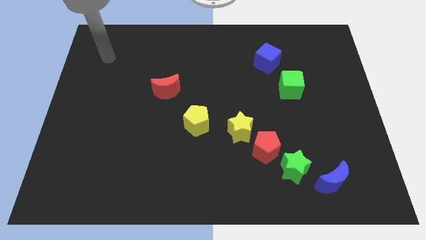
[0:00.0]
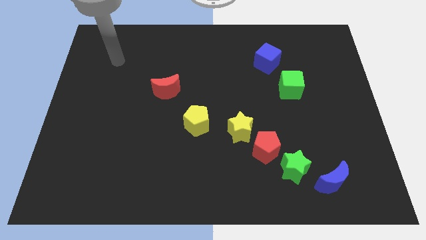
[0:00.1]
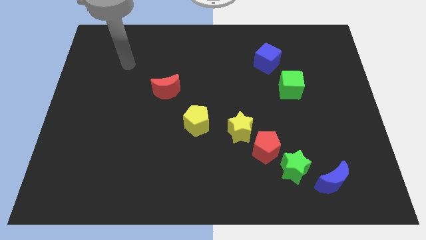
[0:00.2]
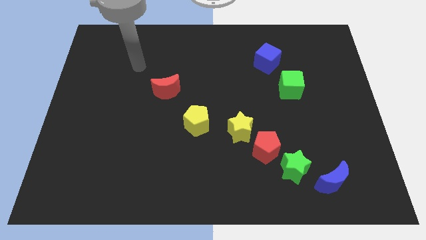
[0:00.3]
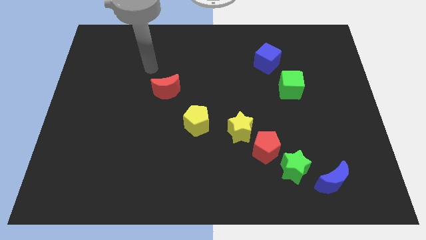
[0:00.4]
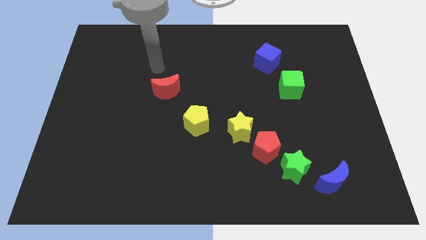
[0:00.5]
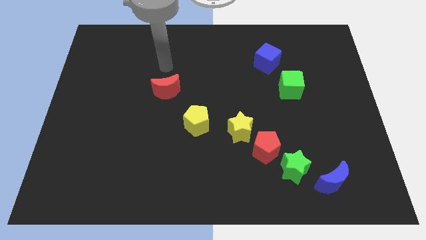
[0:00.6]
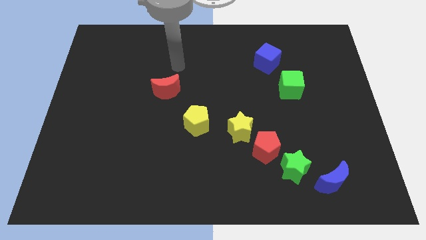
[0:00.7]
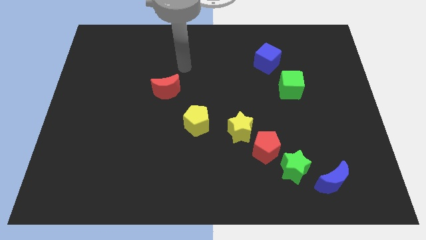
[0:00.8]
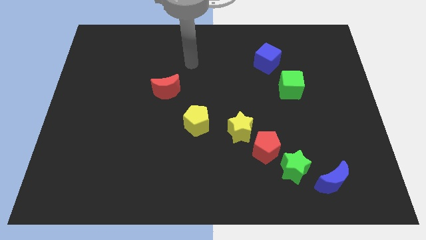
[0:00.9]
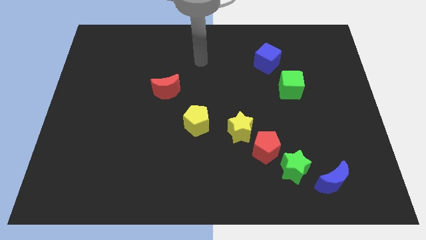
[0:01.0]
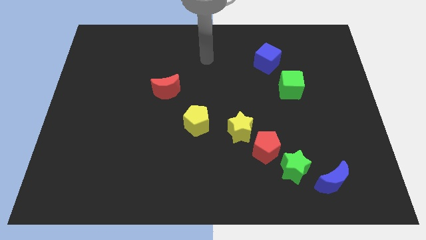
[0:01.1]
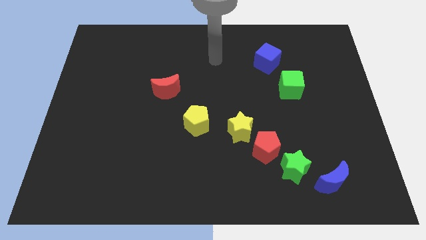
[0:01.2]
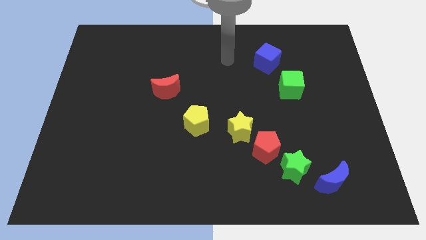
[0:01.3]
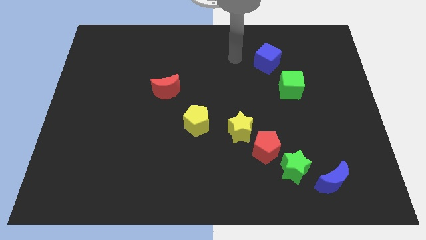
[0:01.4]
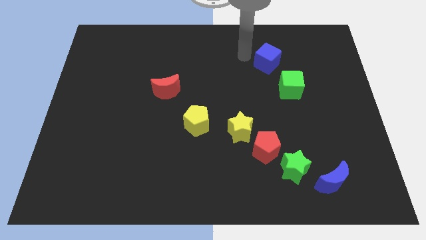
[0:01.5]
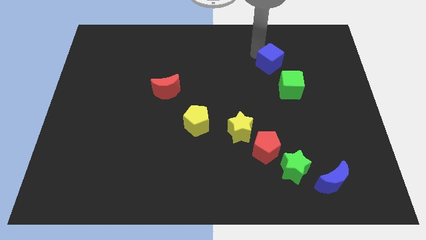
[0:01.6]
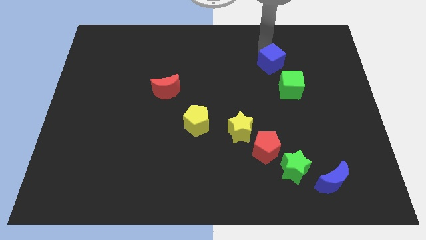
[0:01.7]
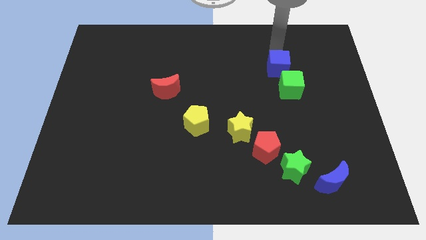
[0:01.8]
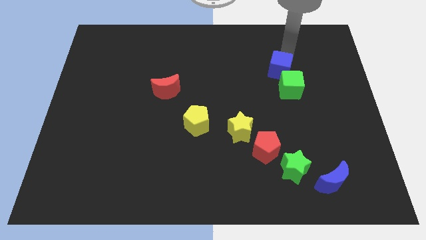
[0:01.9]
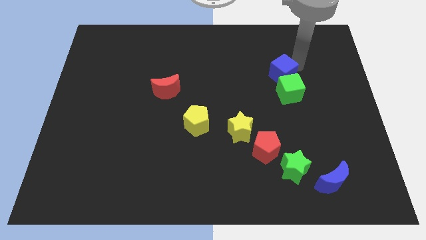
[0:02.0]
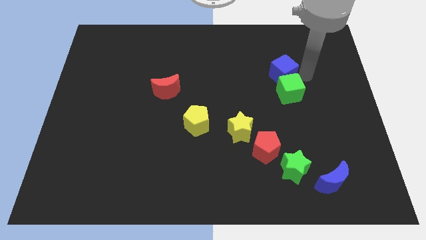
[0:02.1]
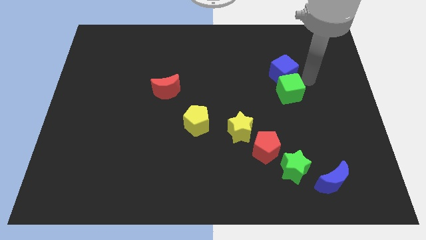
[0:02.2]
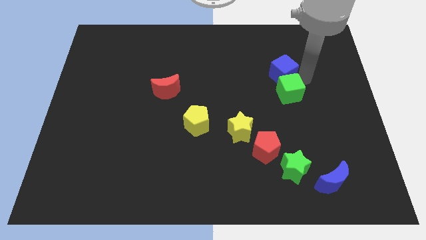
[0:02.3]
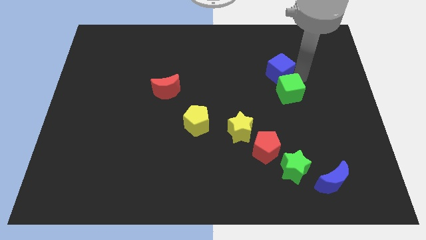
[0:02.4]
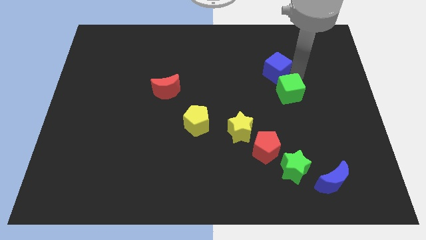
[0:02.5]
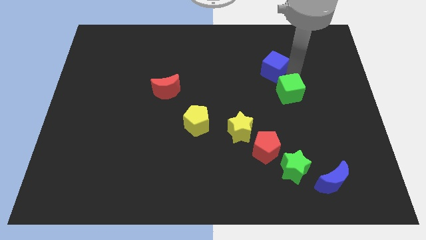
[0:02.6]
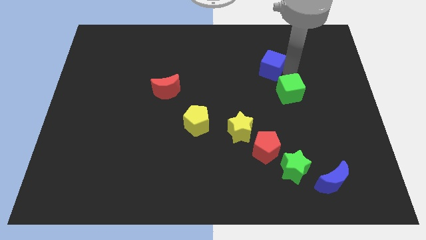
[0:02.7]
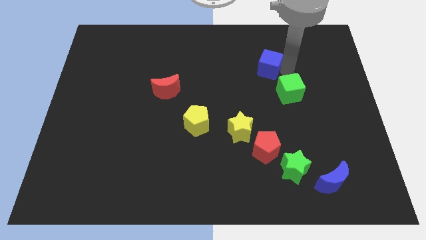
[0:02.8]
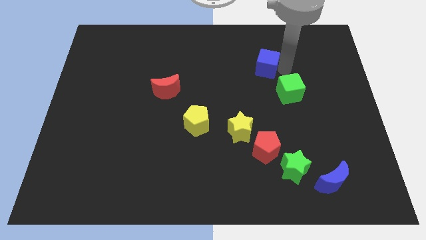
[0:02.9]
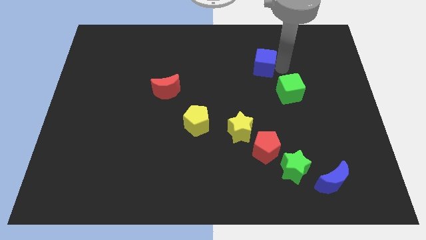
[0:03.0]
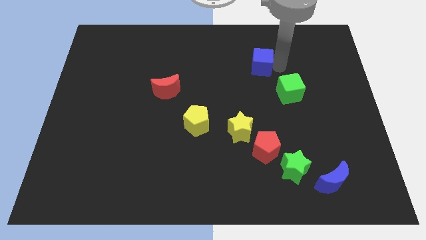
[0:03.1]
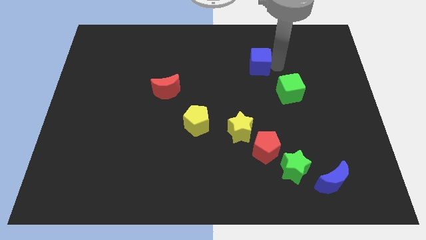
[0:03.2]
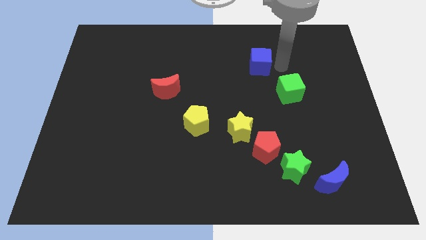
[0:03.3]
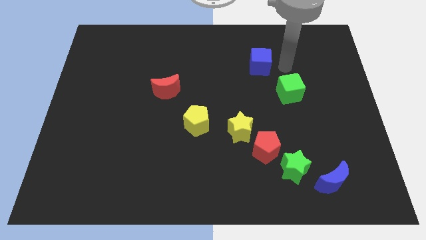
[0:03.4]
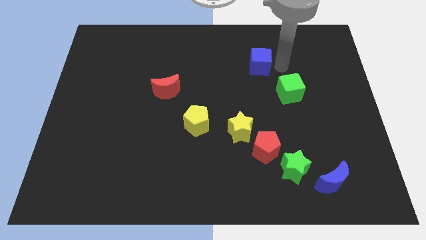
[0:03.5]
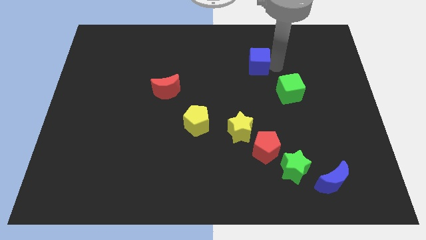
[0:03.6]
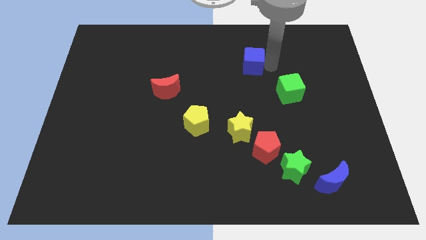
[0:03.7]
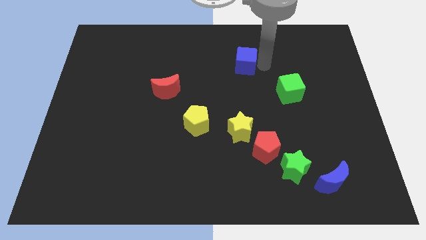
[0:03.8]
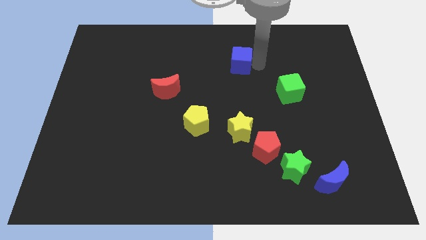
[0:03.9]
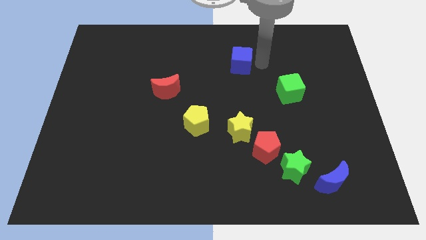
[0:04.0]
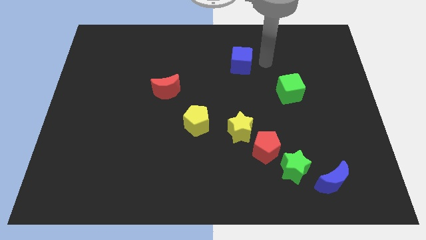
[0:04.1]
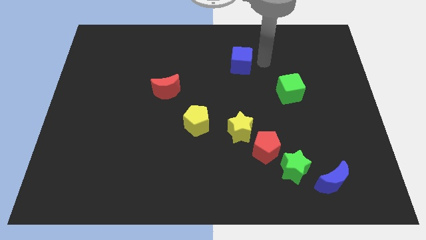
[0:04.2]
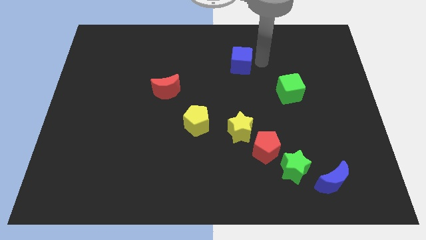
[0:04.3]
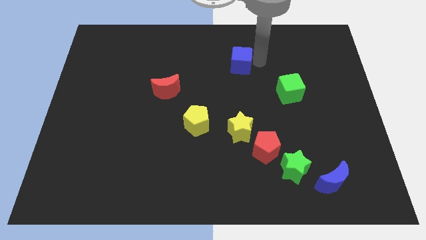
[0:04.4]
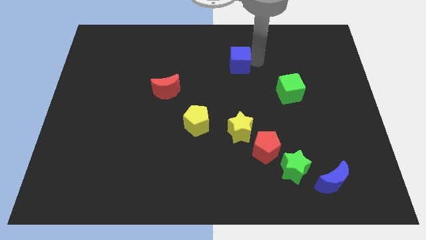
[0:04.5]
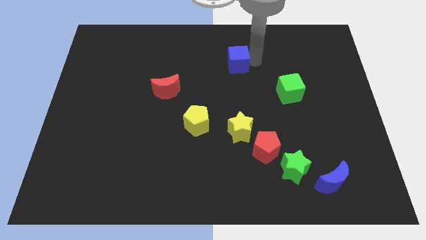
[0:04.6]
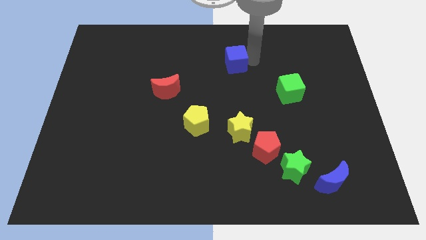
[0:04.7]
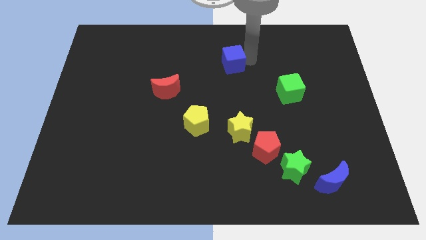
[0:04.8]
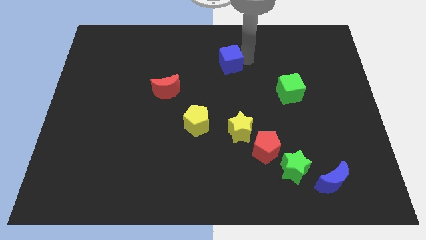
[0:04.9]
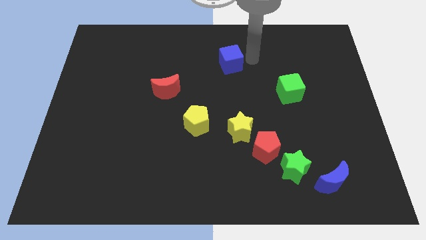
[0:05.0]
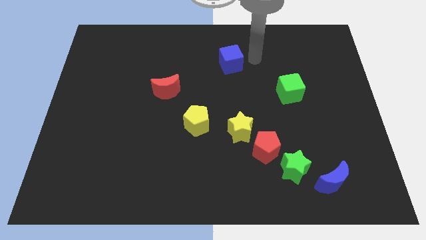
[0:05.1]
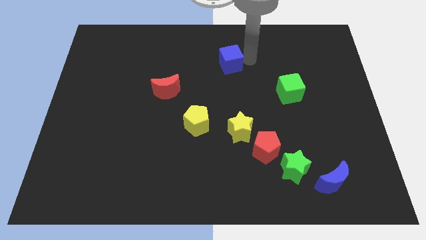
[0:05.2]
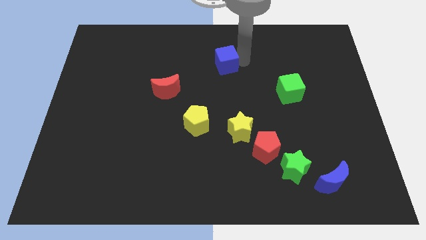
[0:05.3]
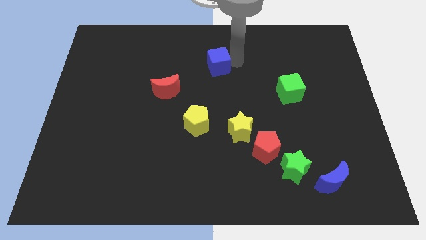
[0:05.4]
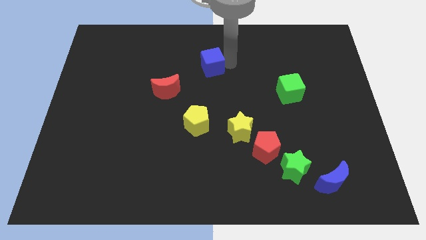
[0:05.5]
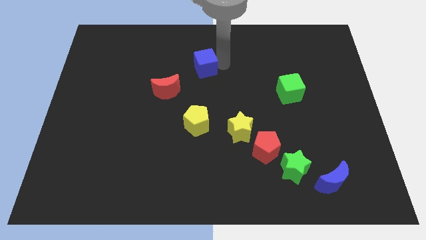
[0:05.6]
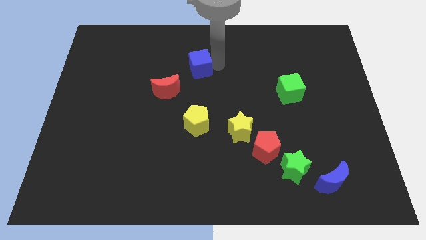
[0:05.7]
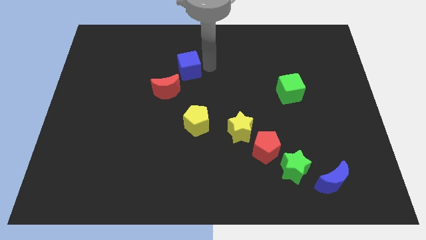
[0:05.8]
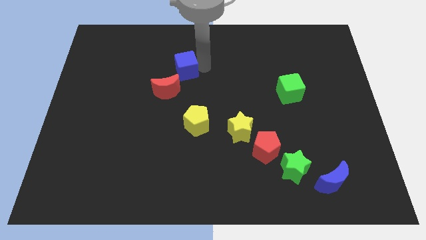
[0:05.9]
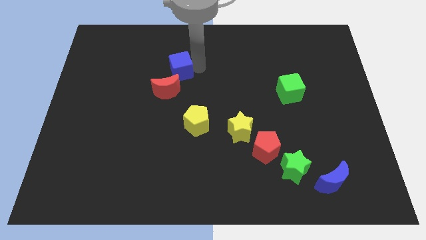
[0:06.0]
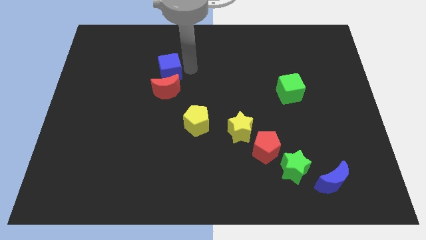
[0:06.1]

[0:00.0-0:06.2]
push the blue cube to the top left side of the red moon

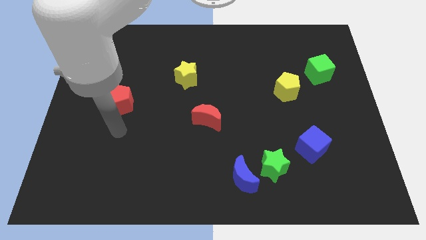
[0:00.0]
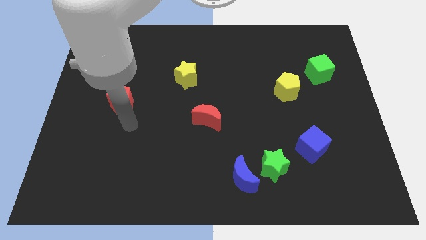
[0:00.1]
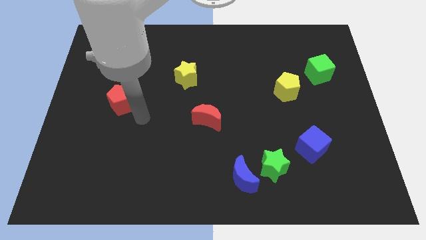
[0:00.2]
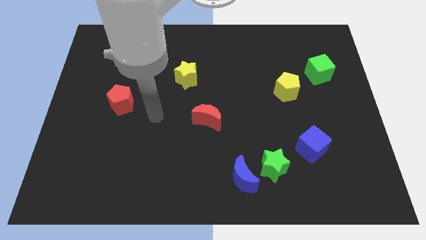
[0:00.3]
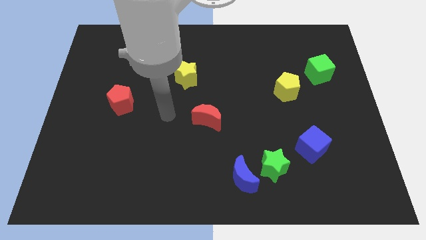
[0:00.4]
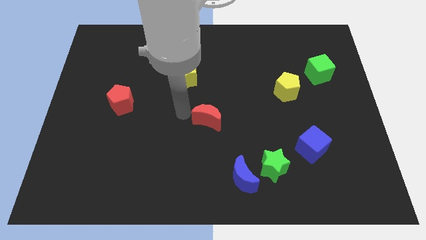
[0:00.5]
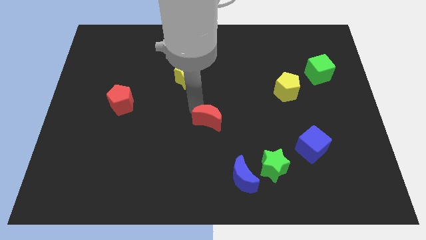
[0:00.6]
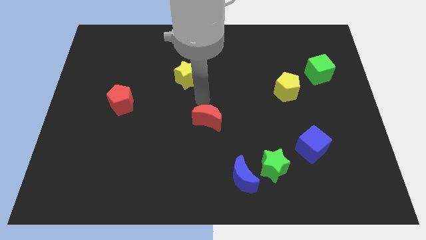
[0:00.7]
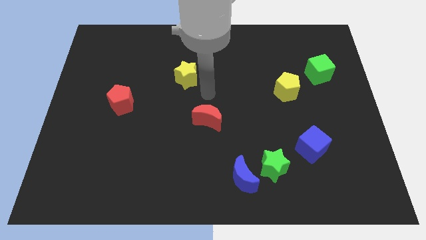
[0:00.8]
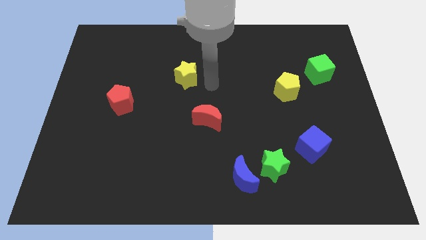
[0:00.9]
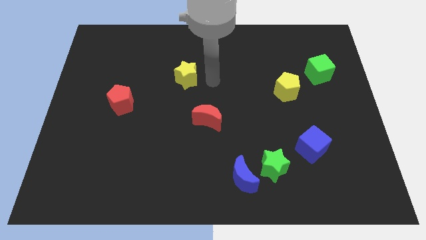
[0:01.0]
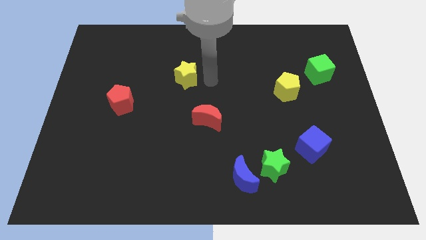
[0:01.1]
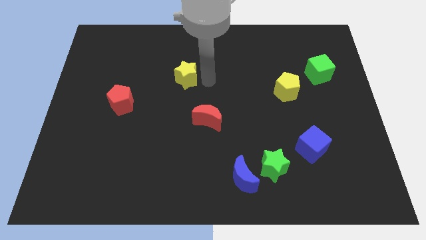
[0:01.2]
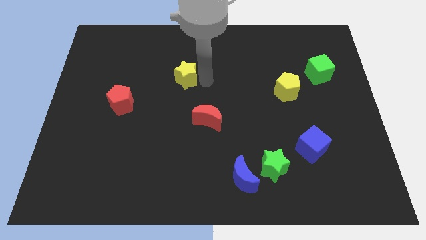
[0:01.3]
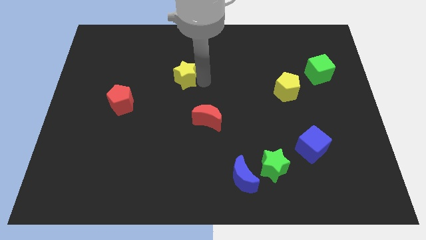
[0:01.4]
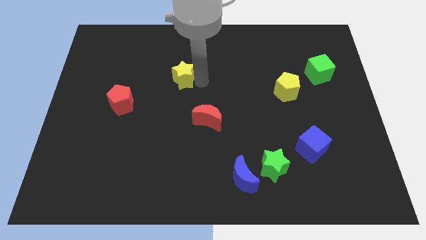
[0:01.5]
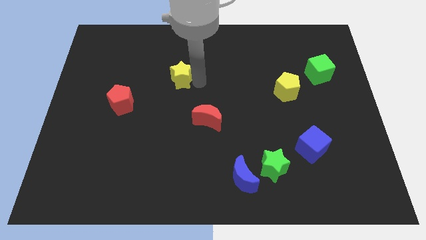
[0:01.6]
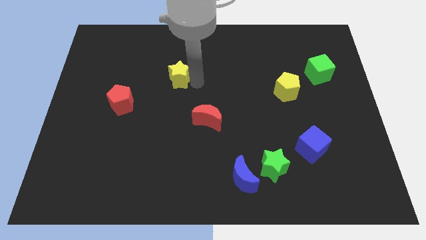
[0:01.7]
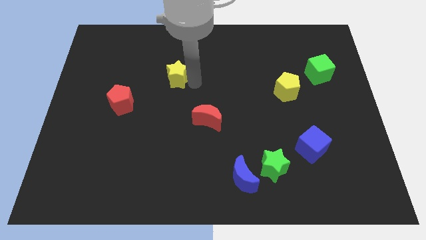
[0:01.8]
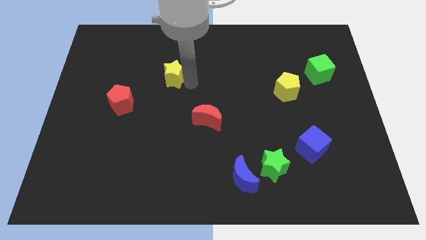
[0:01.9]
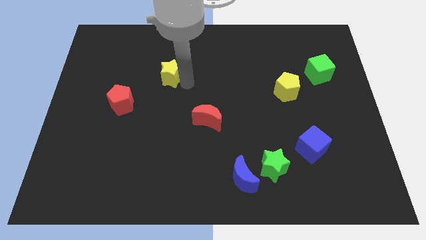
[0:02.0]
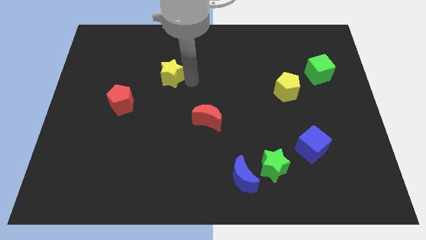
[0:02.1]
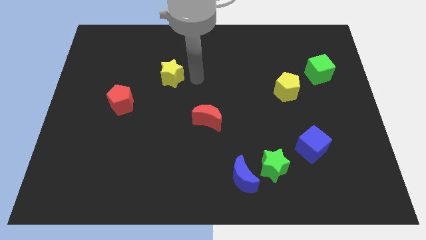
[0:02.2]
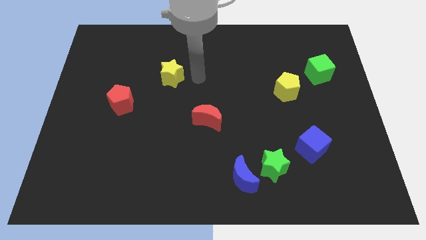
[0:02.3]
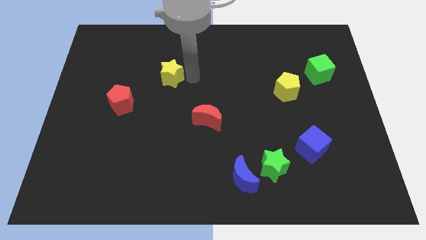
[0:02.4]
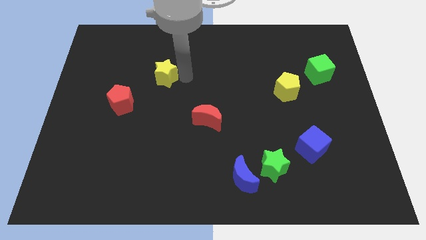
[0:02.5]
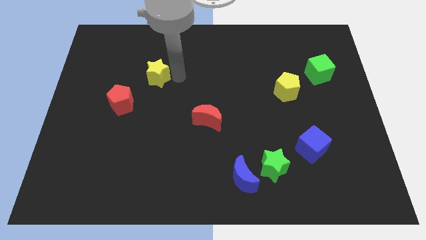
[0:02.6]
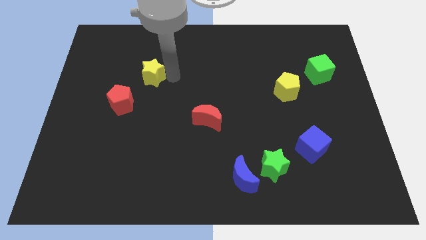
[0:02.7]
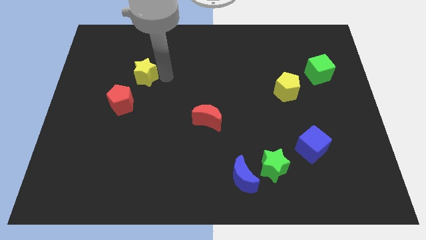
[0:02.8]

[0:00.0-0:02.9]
slide the yellow star above the red pentagon
